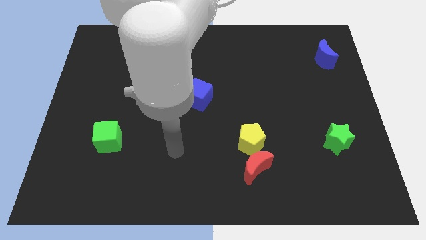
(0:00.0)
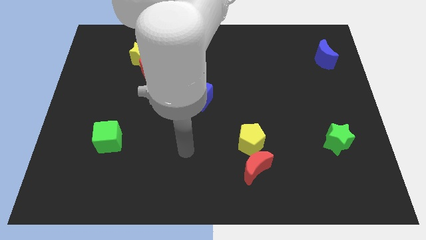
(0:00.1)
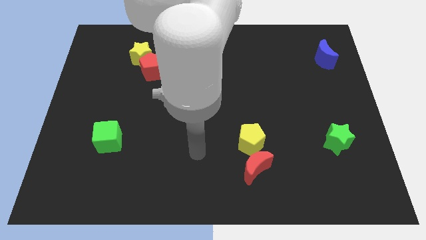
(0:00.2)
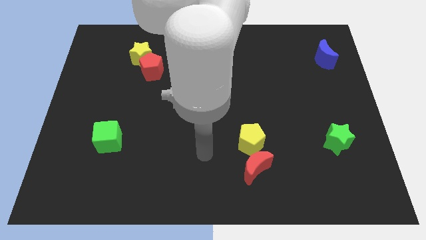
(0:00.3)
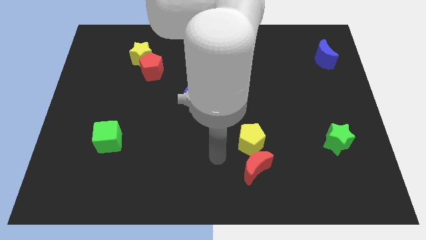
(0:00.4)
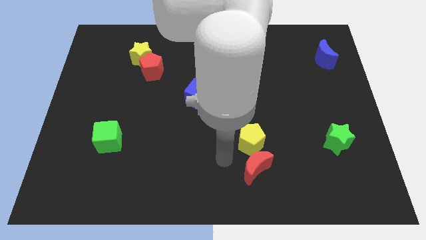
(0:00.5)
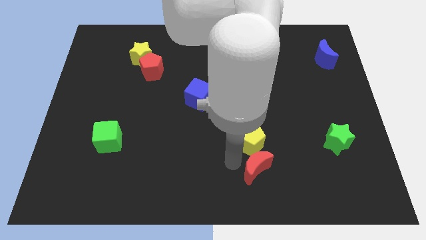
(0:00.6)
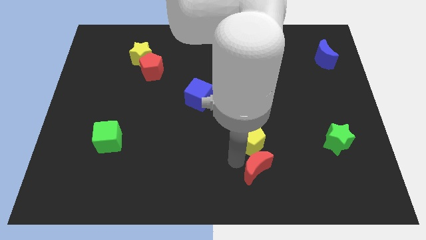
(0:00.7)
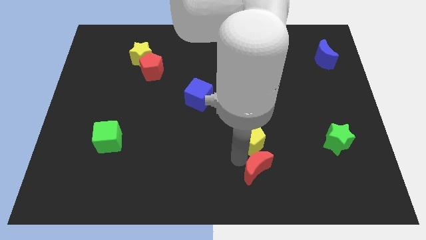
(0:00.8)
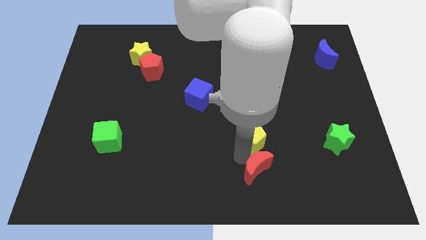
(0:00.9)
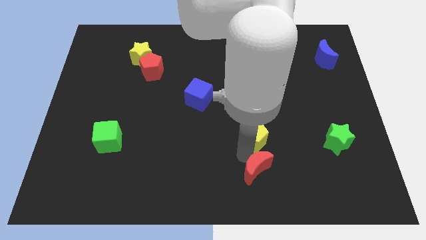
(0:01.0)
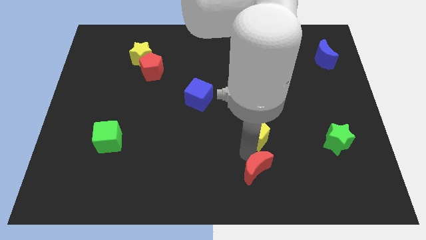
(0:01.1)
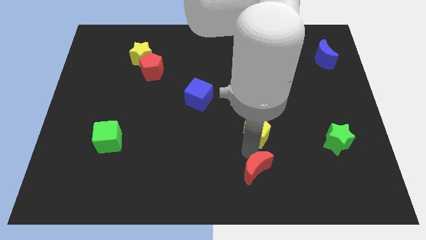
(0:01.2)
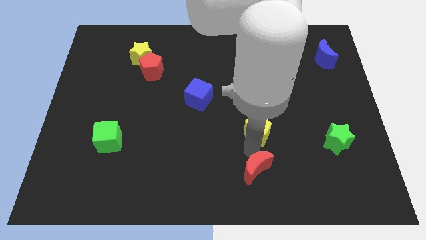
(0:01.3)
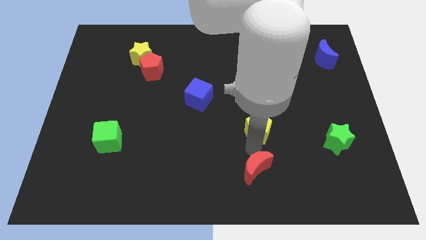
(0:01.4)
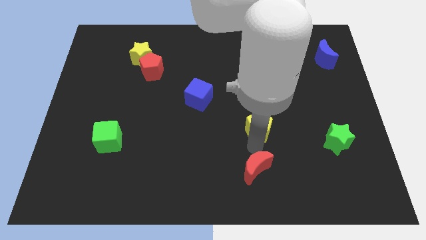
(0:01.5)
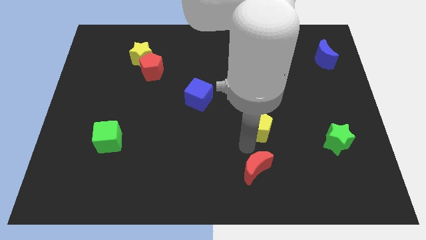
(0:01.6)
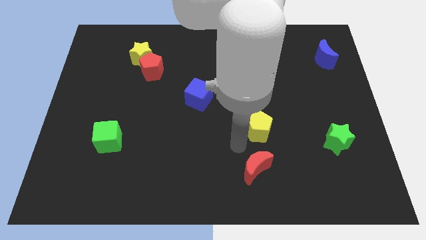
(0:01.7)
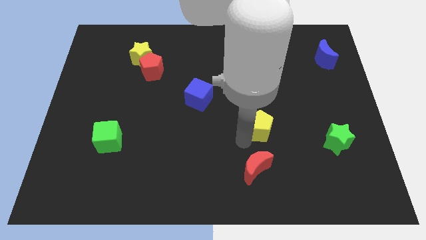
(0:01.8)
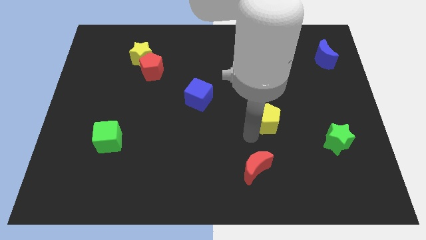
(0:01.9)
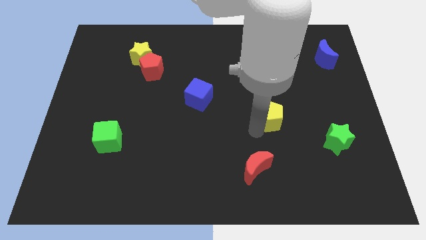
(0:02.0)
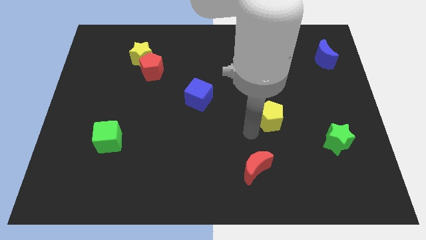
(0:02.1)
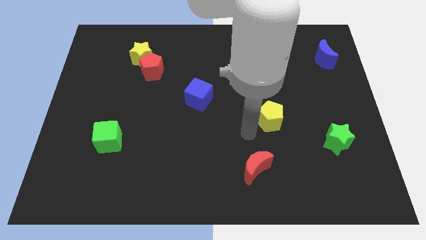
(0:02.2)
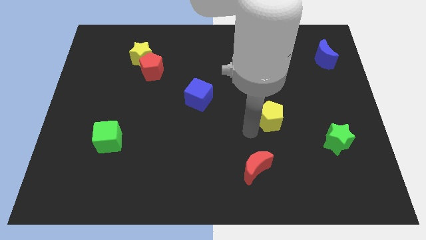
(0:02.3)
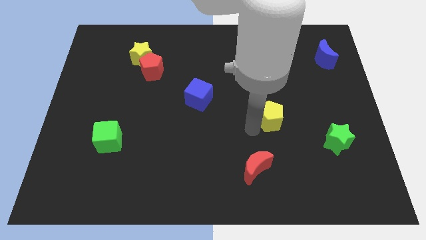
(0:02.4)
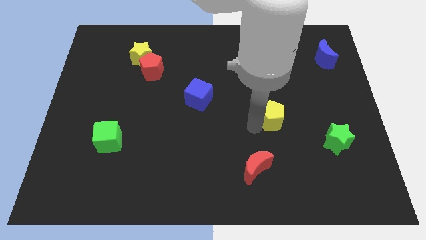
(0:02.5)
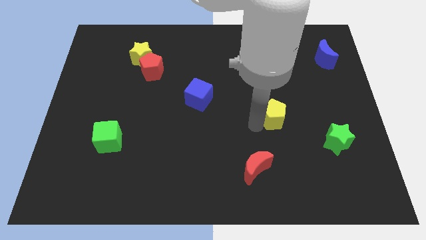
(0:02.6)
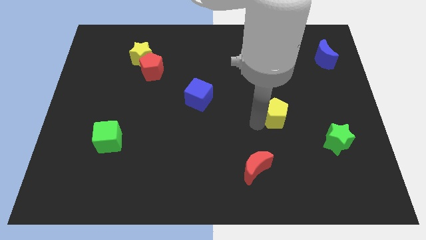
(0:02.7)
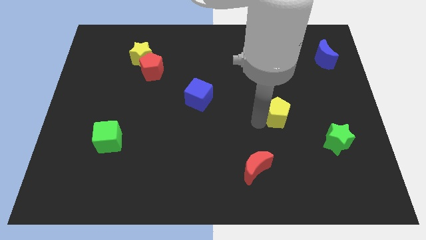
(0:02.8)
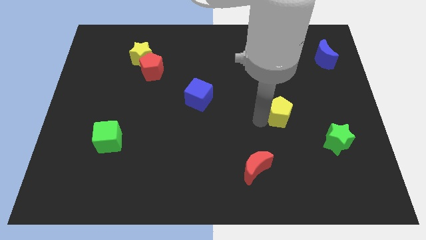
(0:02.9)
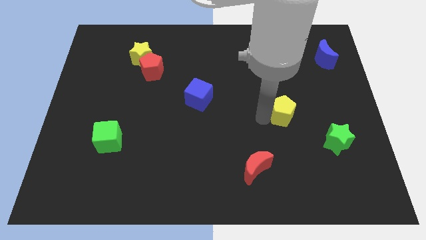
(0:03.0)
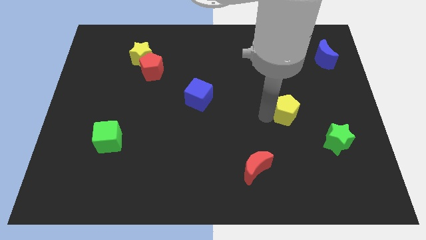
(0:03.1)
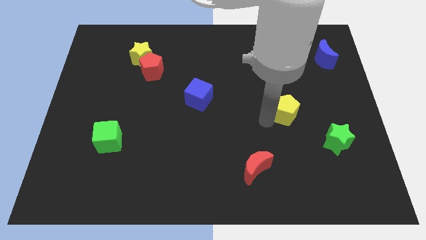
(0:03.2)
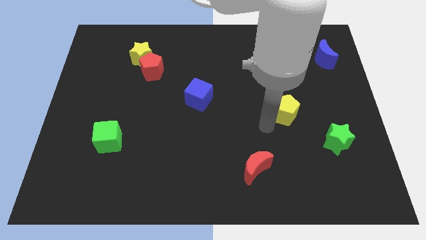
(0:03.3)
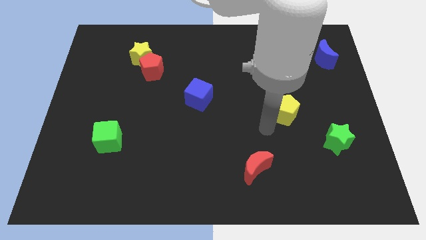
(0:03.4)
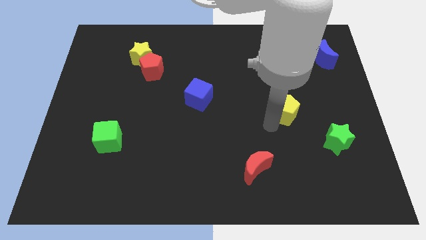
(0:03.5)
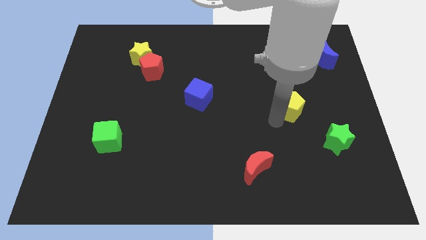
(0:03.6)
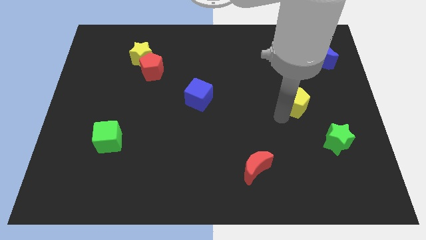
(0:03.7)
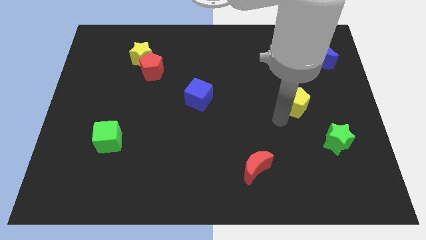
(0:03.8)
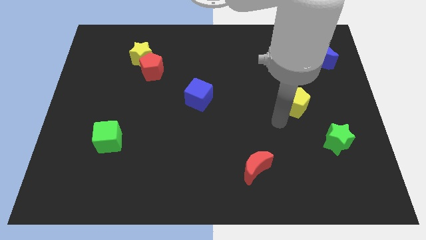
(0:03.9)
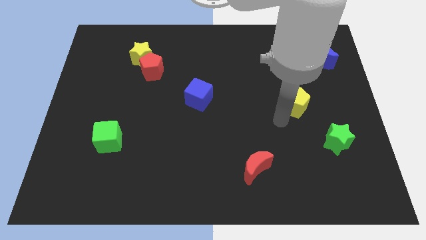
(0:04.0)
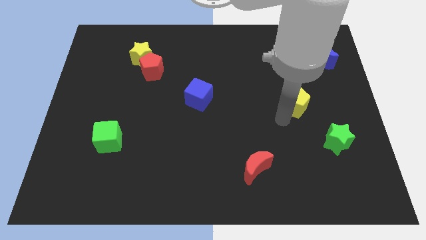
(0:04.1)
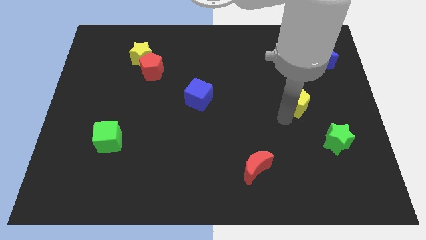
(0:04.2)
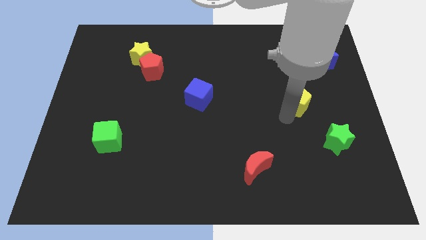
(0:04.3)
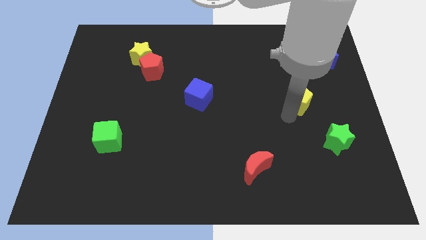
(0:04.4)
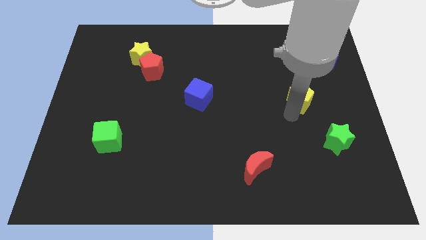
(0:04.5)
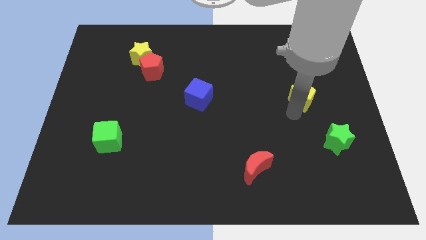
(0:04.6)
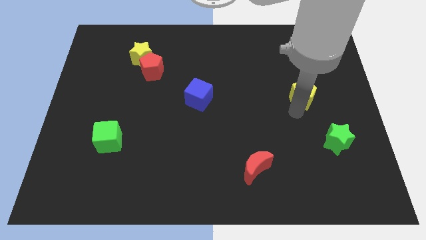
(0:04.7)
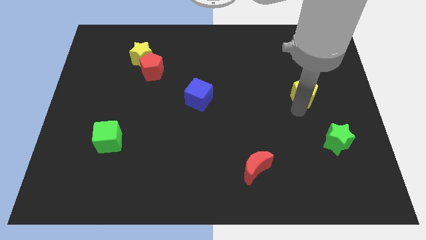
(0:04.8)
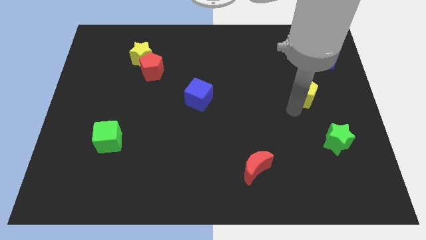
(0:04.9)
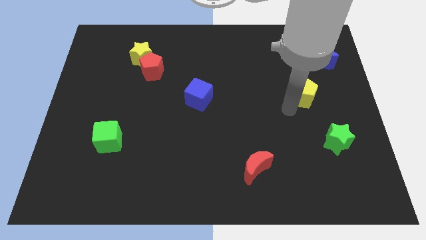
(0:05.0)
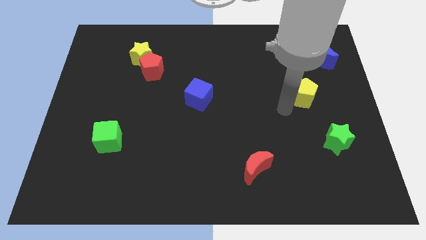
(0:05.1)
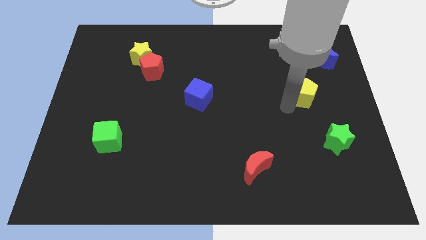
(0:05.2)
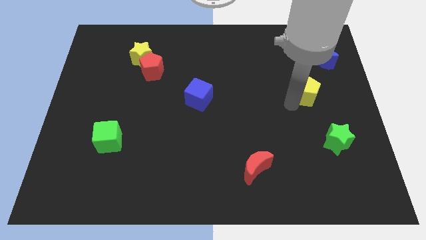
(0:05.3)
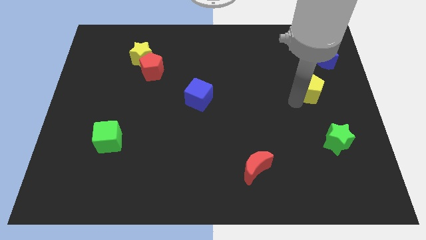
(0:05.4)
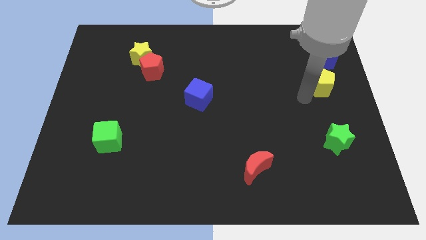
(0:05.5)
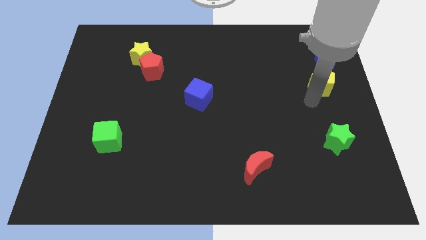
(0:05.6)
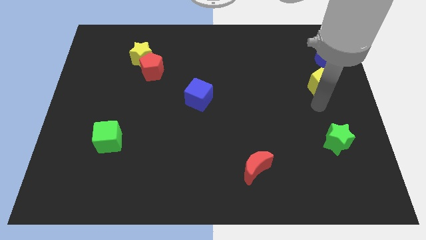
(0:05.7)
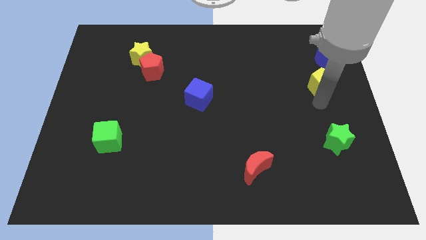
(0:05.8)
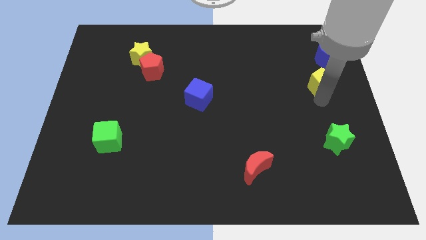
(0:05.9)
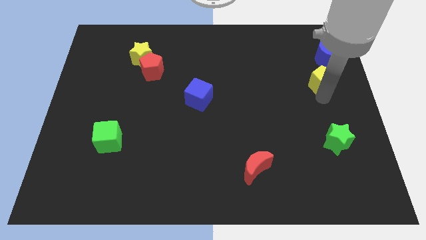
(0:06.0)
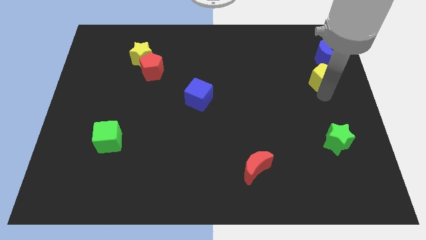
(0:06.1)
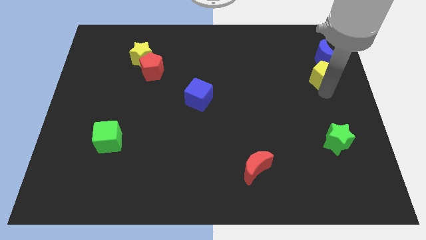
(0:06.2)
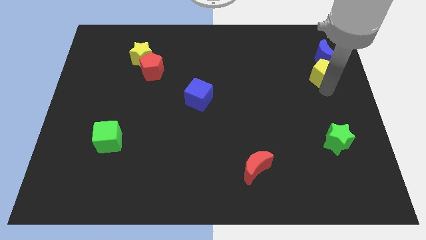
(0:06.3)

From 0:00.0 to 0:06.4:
slide the yellow pentagon to the blue moon

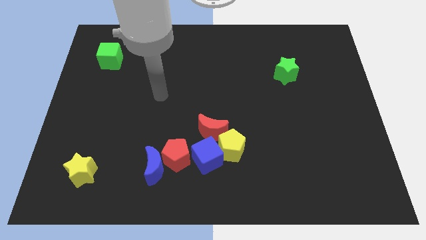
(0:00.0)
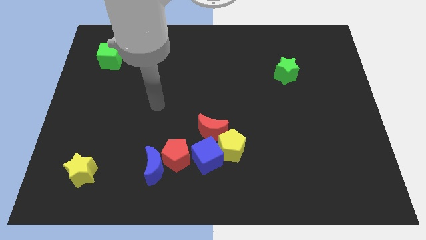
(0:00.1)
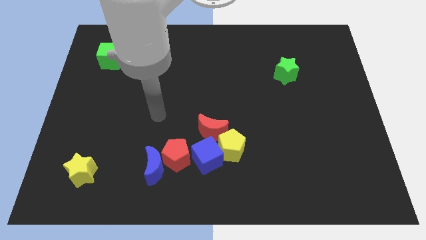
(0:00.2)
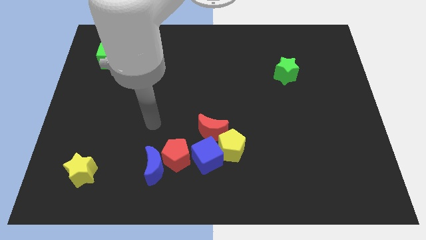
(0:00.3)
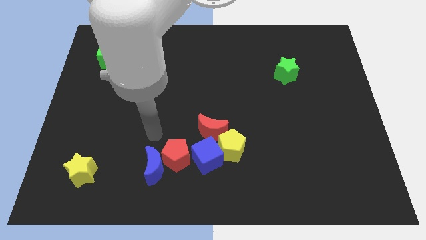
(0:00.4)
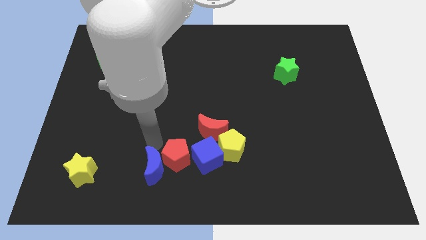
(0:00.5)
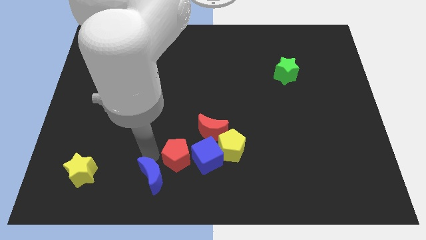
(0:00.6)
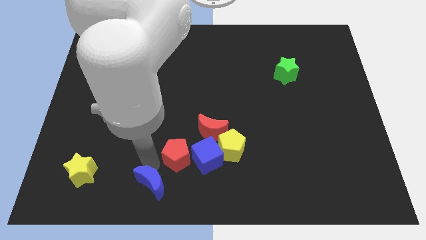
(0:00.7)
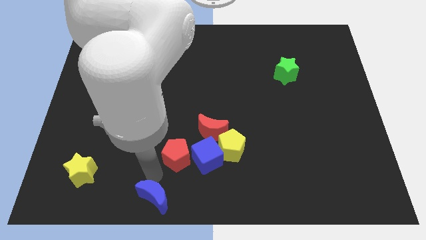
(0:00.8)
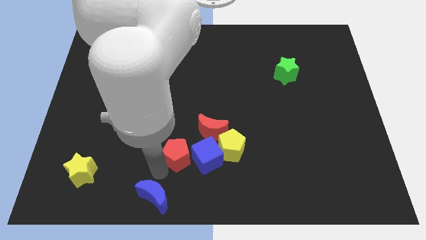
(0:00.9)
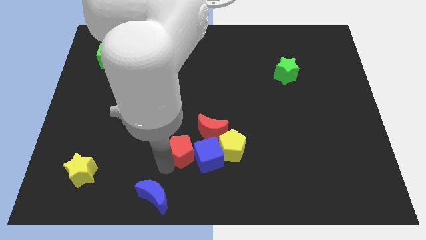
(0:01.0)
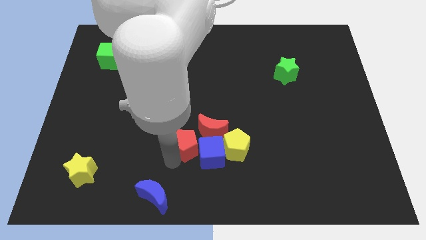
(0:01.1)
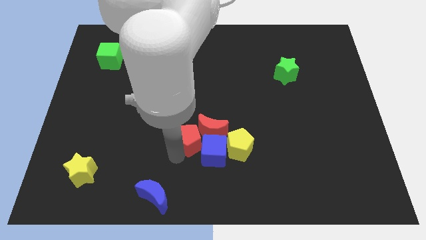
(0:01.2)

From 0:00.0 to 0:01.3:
push the red pentagon next to the red moon
